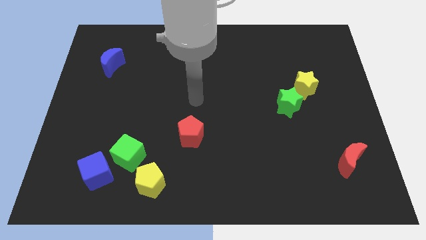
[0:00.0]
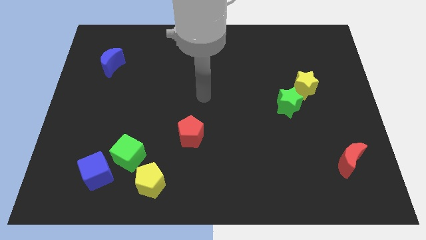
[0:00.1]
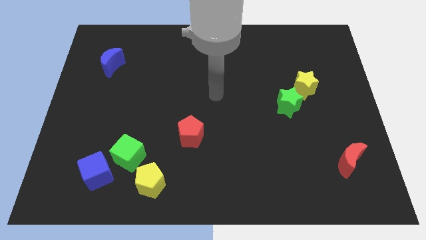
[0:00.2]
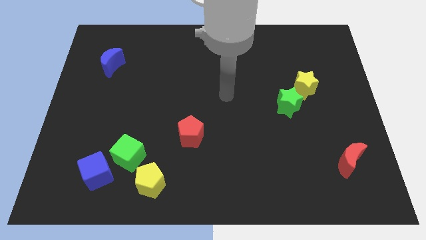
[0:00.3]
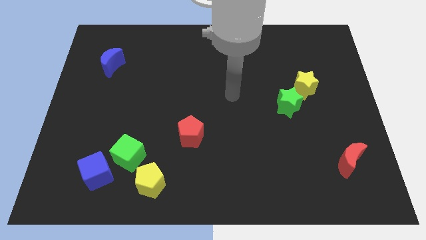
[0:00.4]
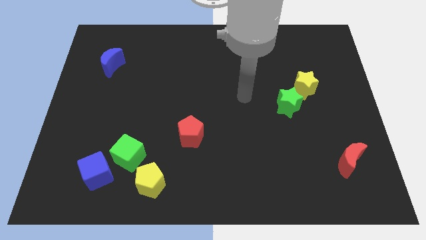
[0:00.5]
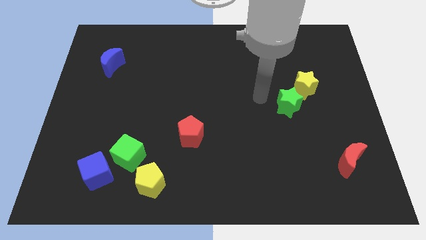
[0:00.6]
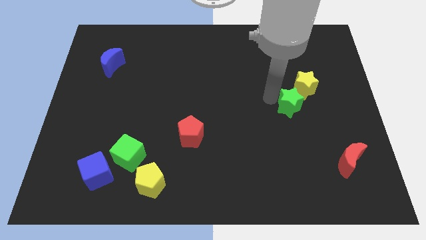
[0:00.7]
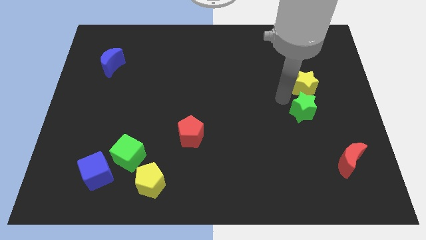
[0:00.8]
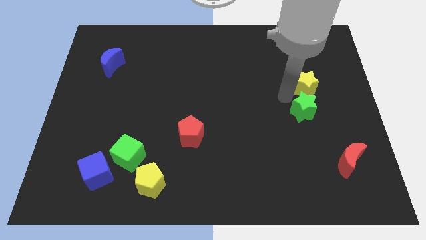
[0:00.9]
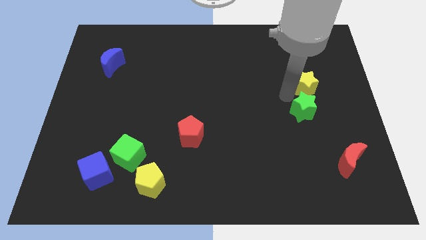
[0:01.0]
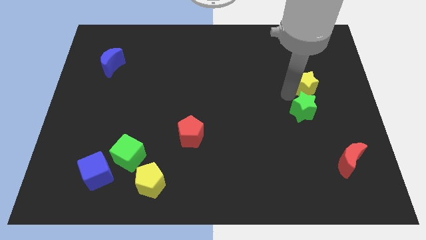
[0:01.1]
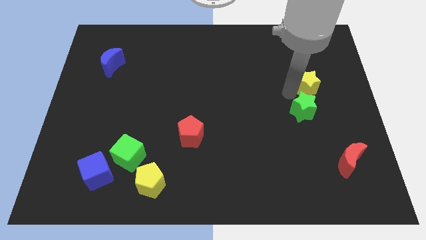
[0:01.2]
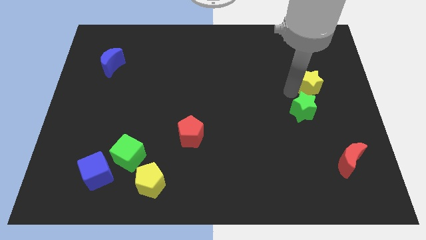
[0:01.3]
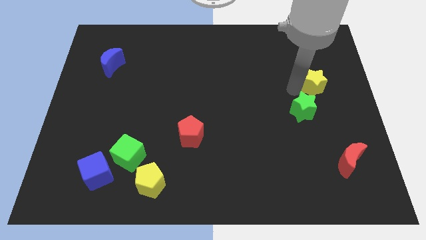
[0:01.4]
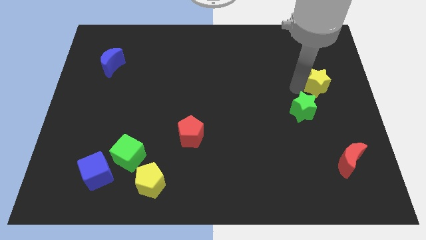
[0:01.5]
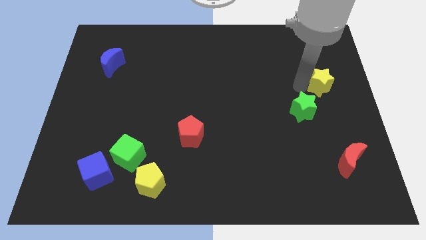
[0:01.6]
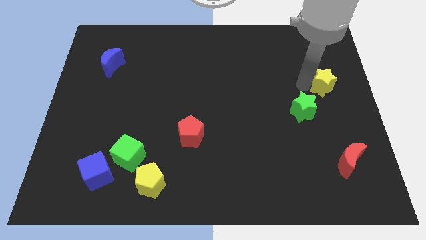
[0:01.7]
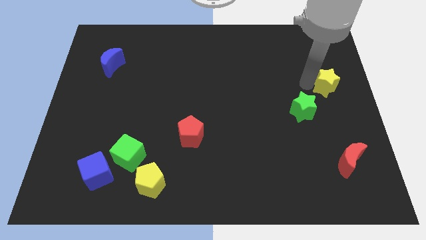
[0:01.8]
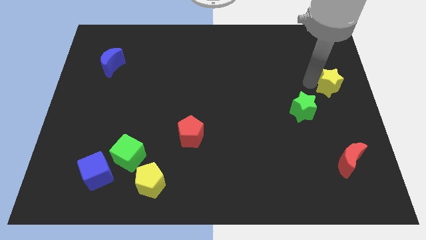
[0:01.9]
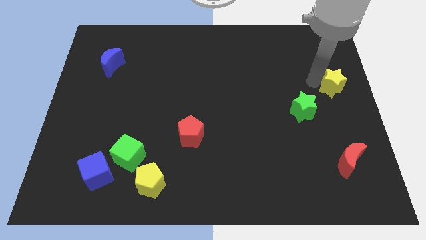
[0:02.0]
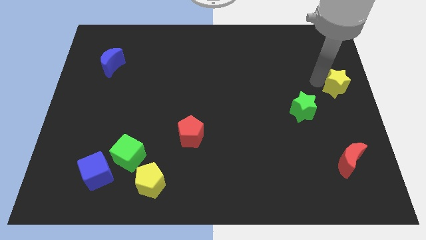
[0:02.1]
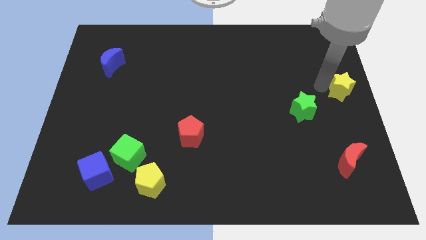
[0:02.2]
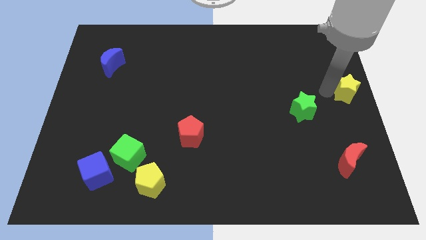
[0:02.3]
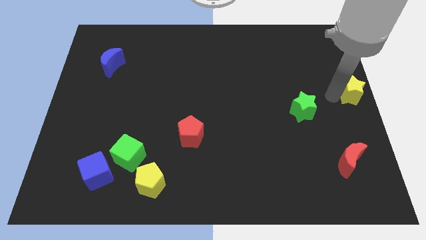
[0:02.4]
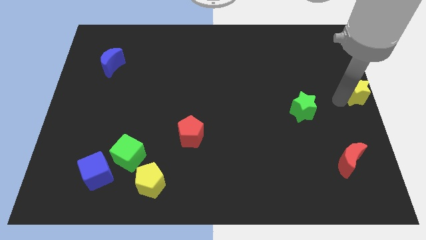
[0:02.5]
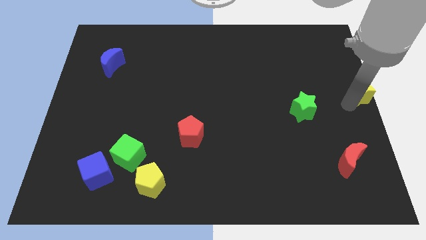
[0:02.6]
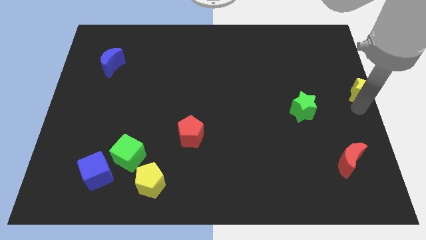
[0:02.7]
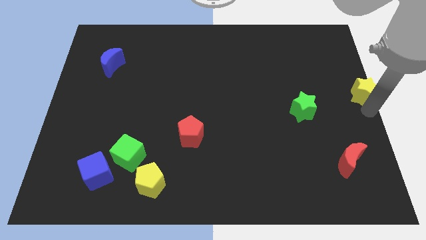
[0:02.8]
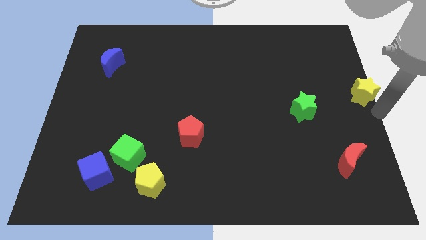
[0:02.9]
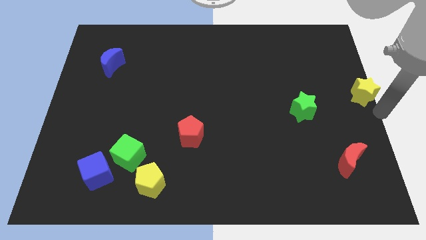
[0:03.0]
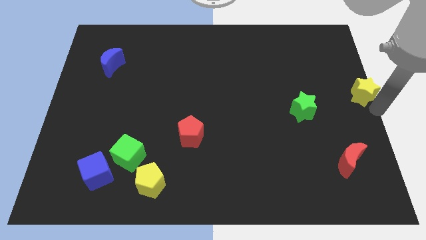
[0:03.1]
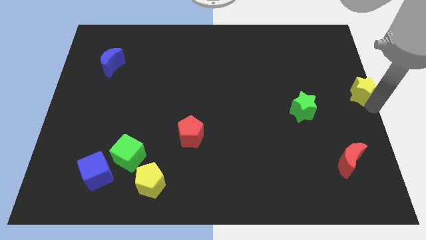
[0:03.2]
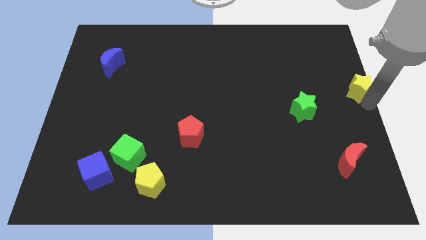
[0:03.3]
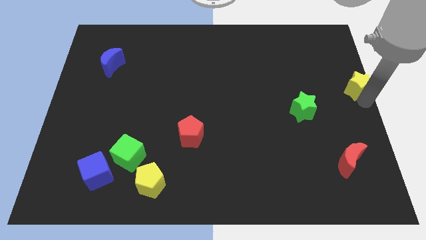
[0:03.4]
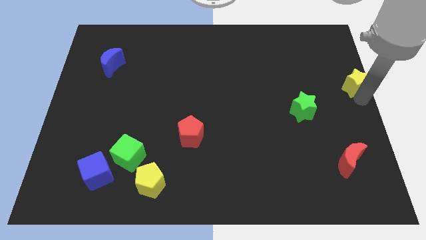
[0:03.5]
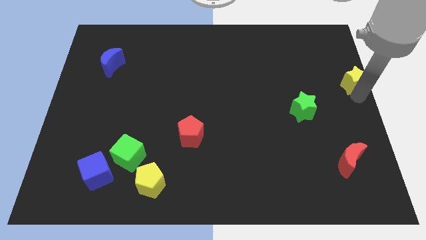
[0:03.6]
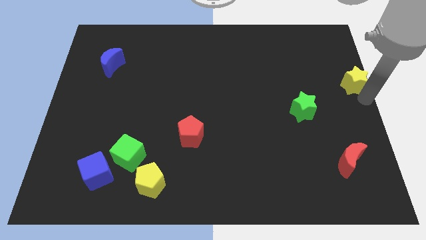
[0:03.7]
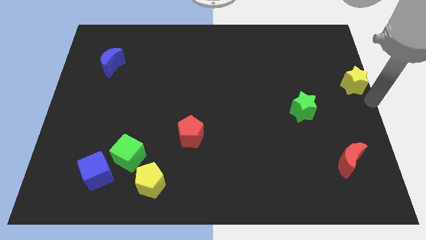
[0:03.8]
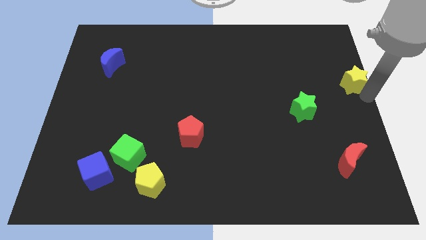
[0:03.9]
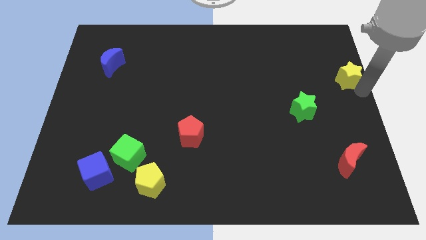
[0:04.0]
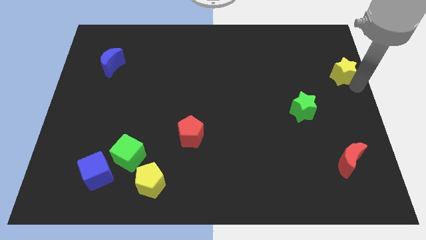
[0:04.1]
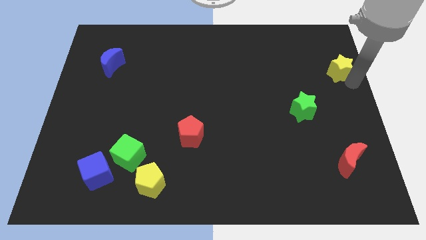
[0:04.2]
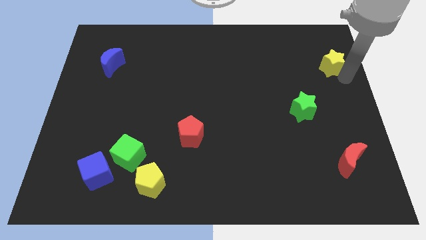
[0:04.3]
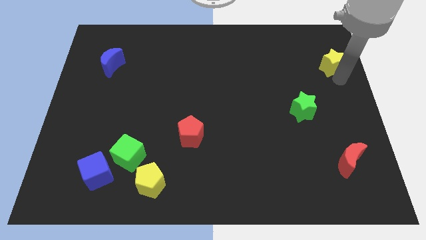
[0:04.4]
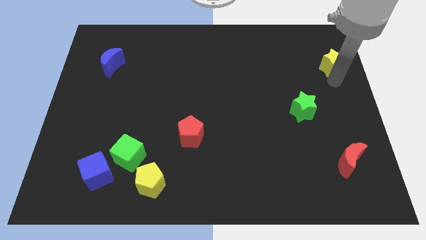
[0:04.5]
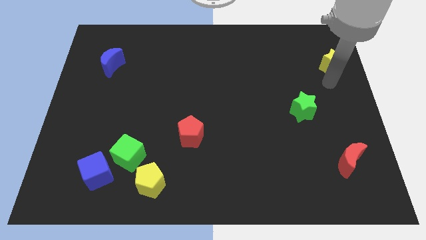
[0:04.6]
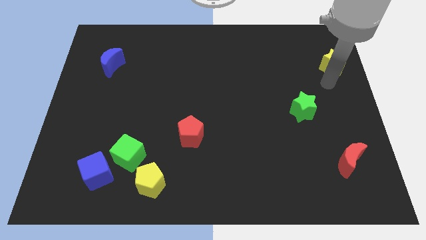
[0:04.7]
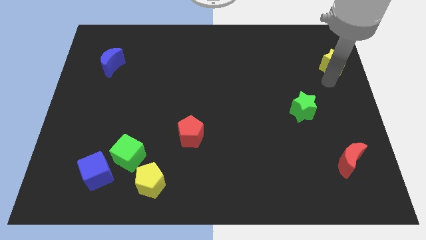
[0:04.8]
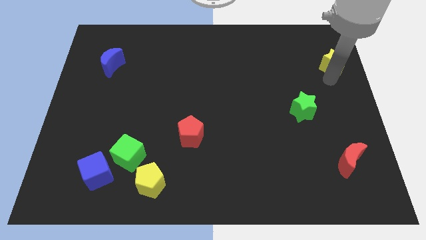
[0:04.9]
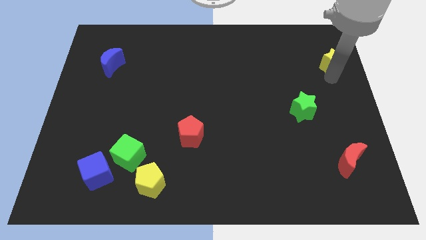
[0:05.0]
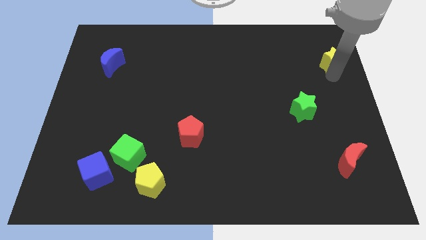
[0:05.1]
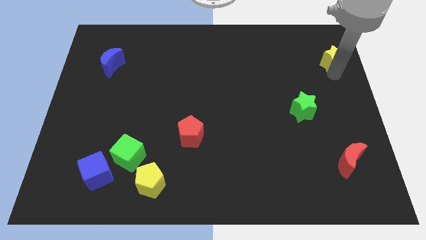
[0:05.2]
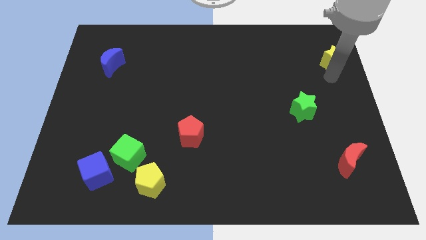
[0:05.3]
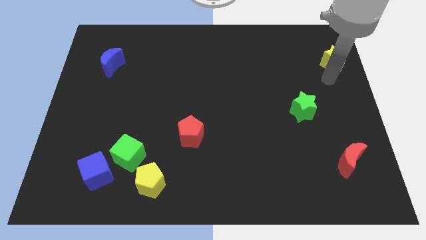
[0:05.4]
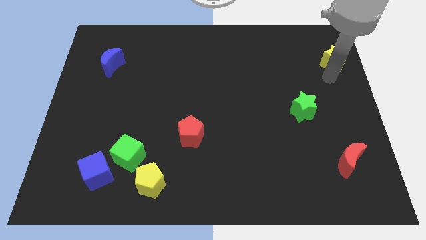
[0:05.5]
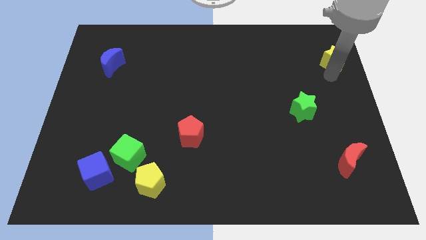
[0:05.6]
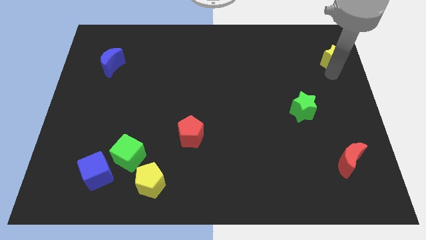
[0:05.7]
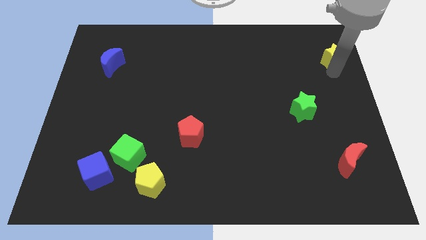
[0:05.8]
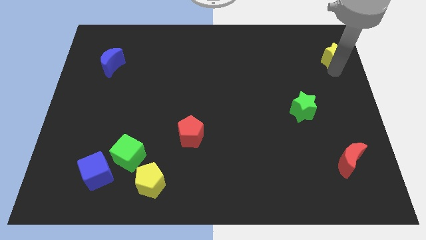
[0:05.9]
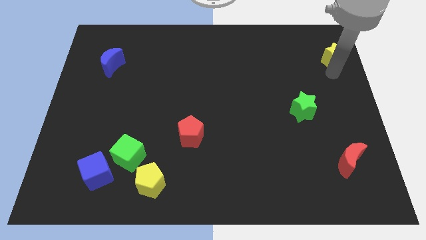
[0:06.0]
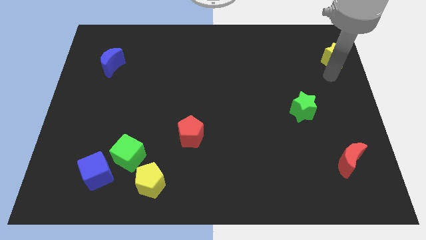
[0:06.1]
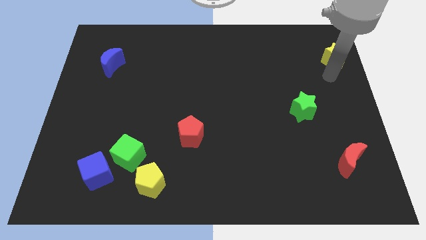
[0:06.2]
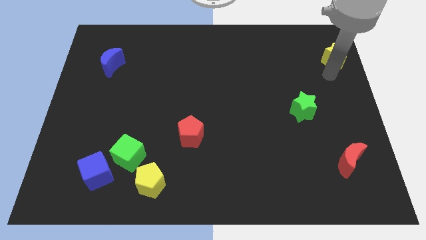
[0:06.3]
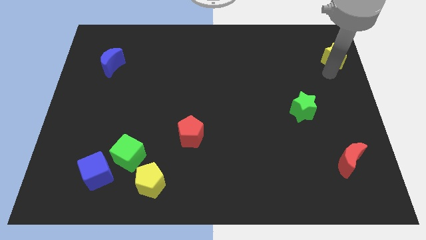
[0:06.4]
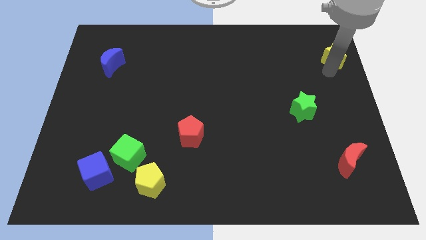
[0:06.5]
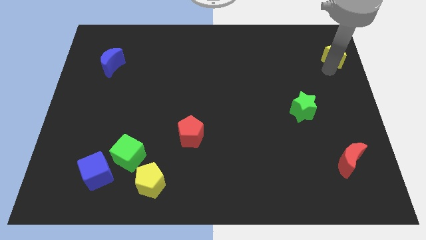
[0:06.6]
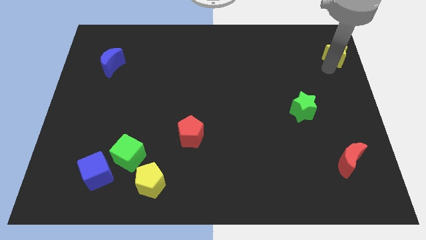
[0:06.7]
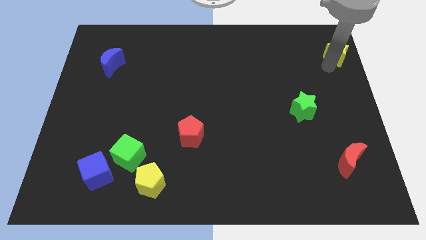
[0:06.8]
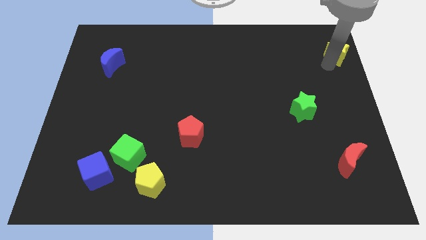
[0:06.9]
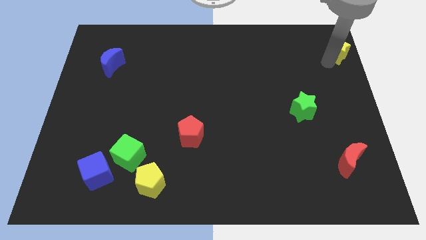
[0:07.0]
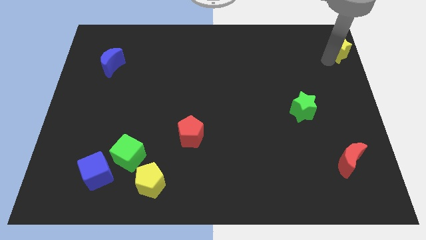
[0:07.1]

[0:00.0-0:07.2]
slide the yellow star to the top right of the board
